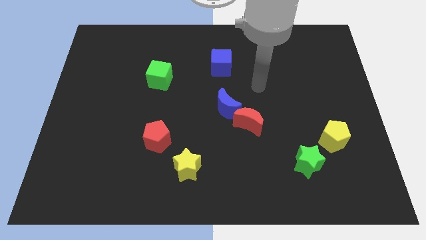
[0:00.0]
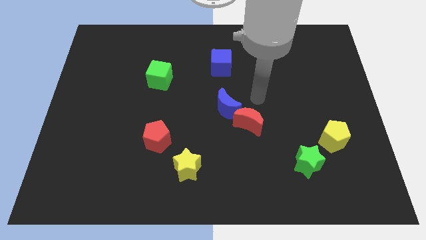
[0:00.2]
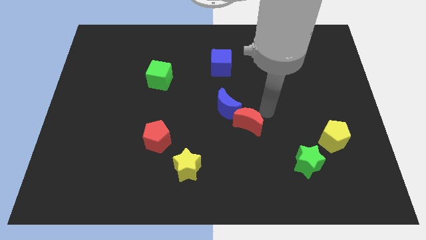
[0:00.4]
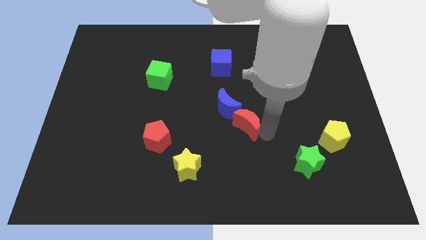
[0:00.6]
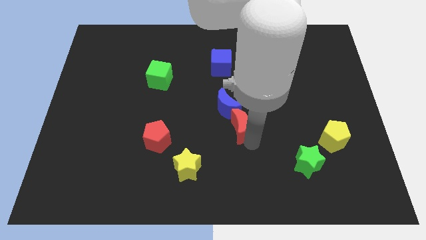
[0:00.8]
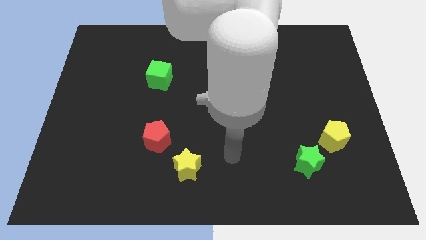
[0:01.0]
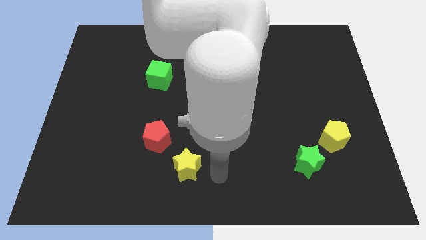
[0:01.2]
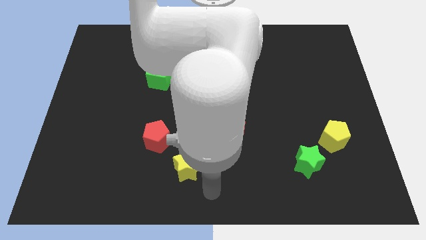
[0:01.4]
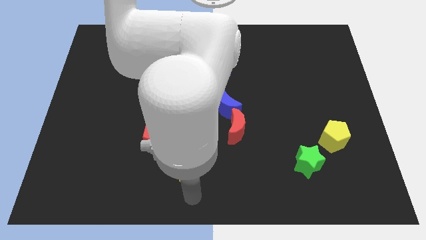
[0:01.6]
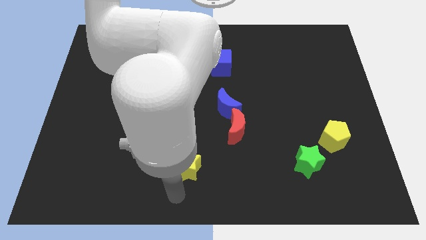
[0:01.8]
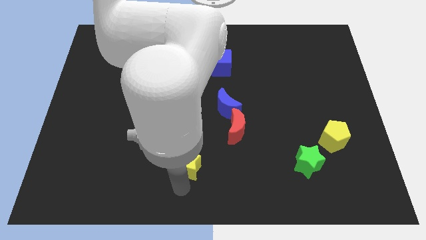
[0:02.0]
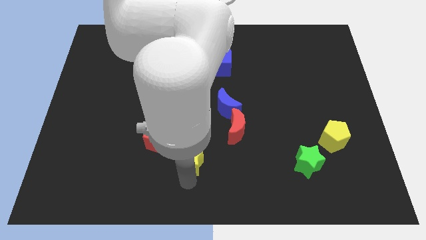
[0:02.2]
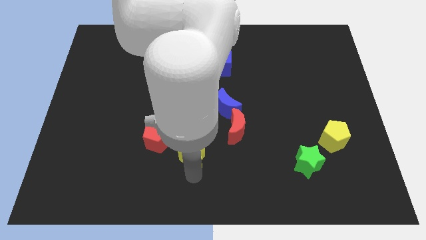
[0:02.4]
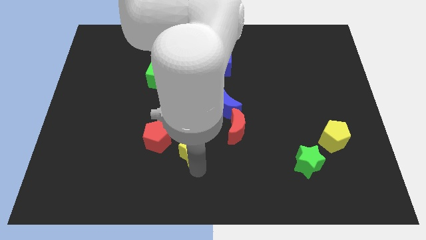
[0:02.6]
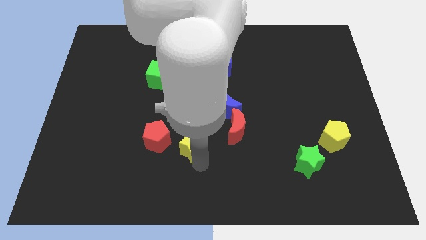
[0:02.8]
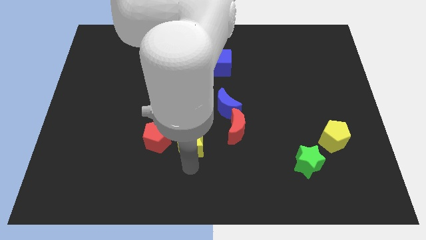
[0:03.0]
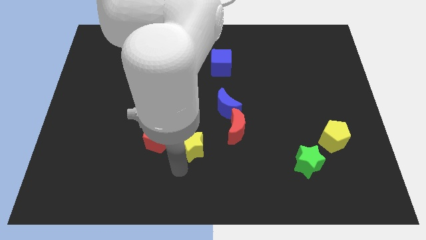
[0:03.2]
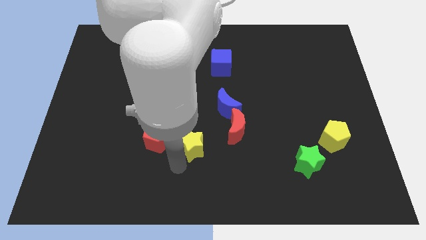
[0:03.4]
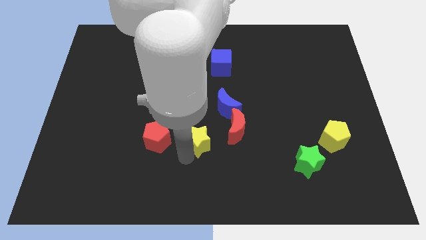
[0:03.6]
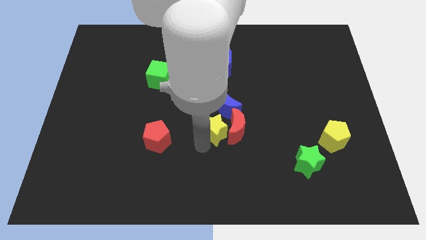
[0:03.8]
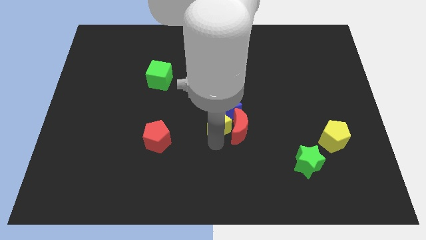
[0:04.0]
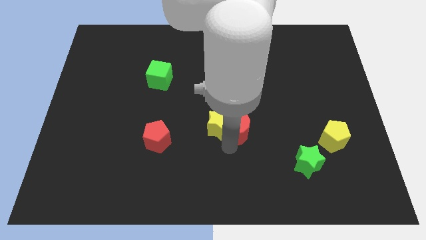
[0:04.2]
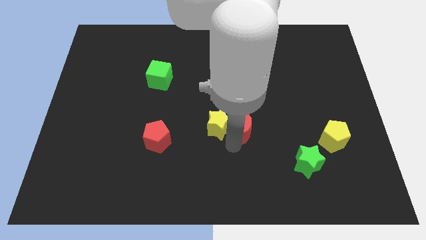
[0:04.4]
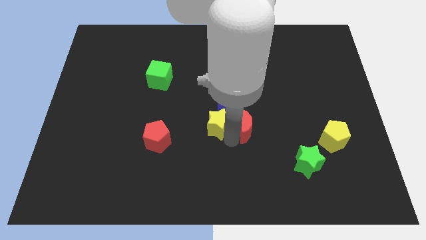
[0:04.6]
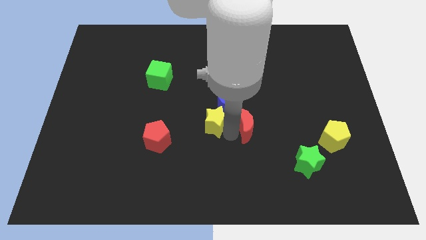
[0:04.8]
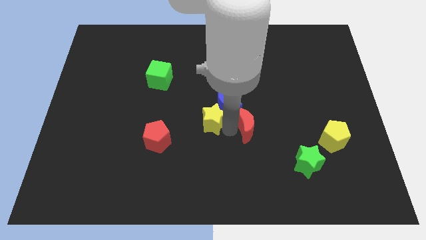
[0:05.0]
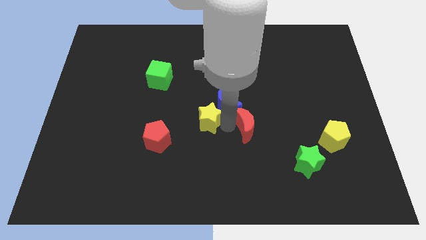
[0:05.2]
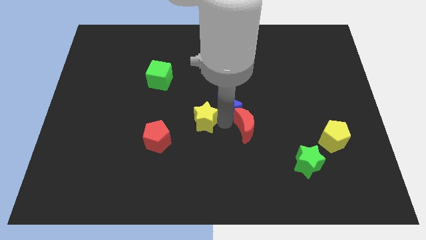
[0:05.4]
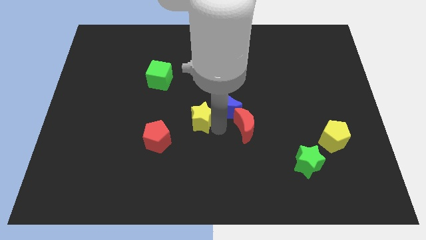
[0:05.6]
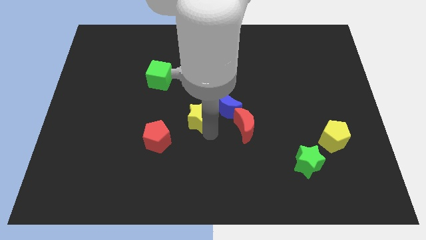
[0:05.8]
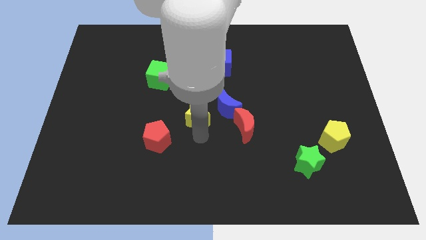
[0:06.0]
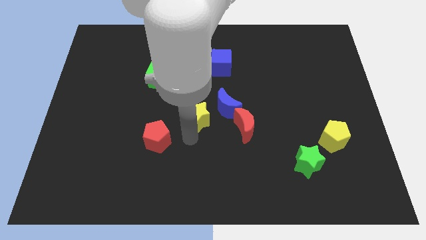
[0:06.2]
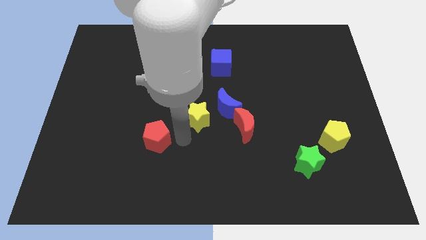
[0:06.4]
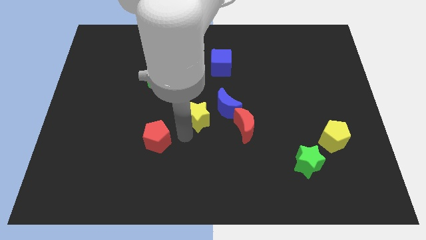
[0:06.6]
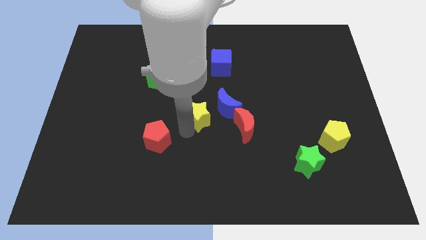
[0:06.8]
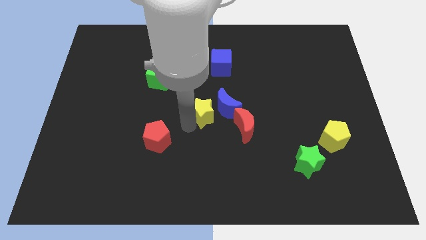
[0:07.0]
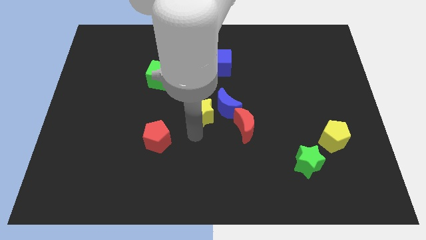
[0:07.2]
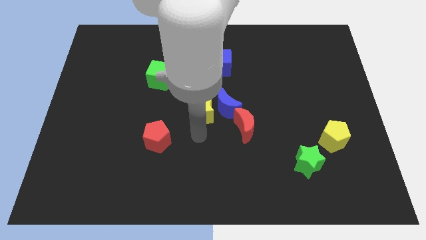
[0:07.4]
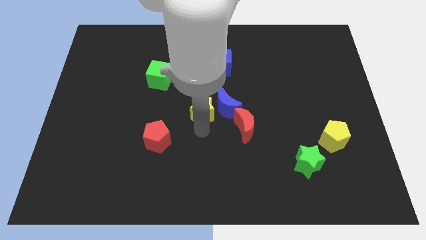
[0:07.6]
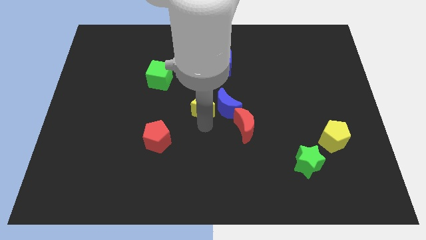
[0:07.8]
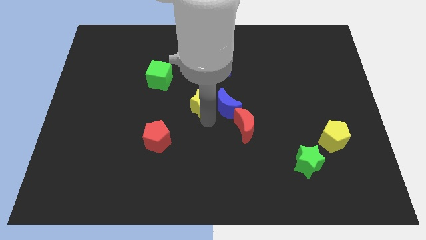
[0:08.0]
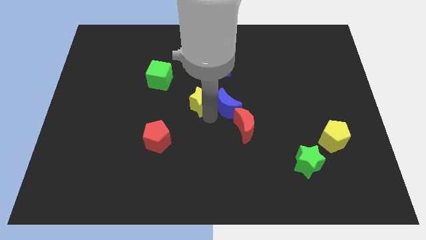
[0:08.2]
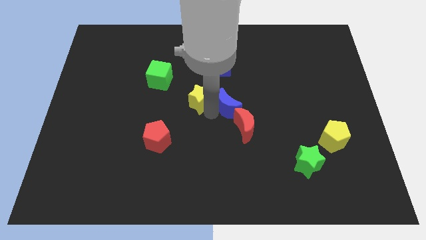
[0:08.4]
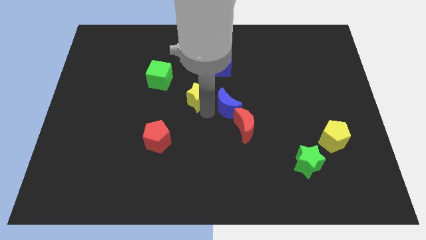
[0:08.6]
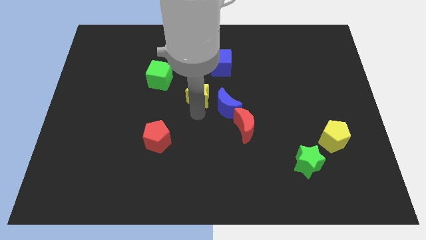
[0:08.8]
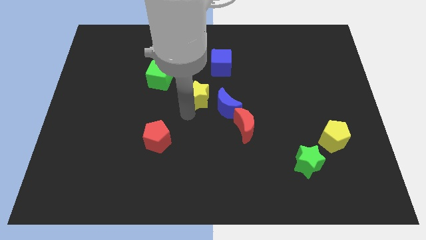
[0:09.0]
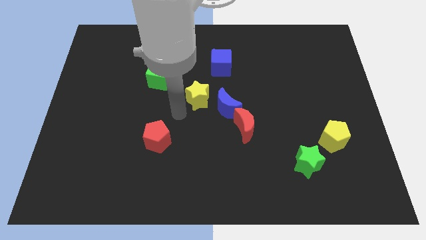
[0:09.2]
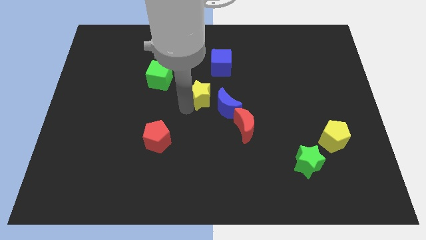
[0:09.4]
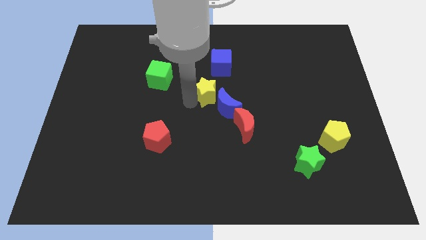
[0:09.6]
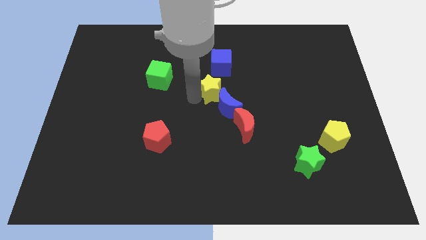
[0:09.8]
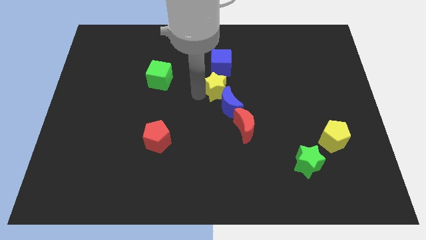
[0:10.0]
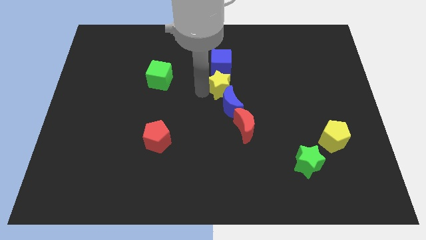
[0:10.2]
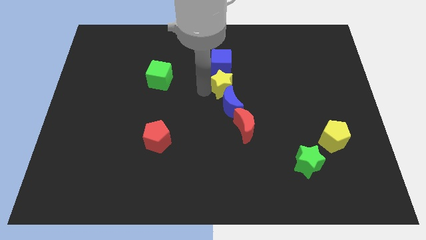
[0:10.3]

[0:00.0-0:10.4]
move the yellow star to the top of the red moon

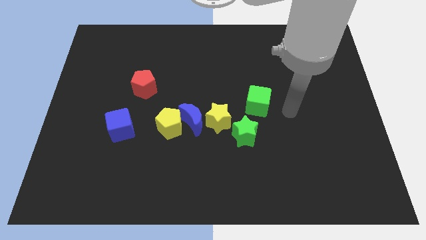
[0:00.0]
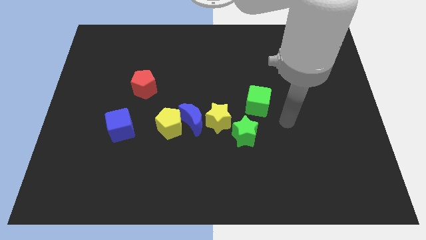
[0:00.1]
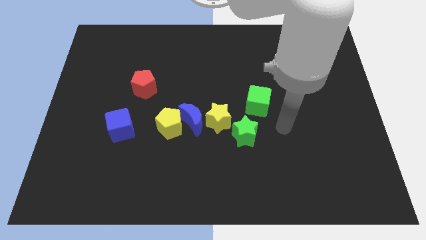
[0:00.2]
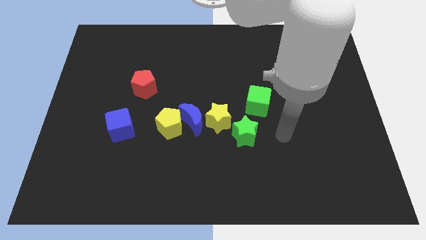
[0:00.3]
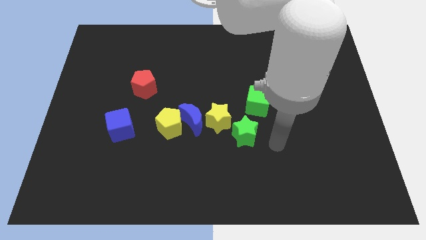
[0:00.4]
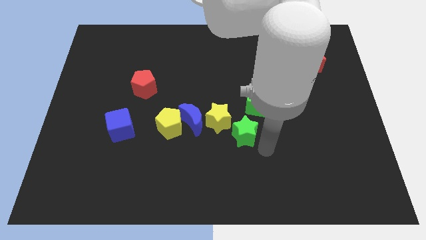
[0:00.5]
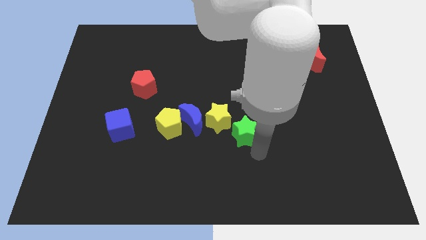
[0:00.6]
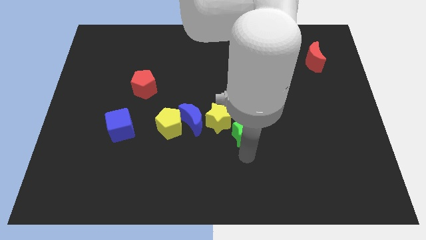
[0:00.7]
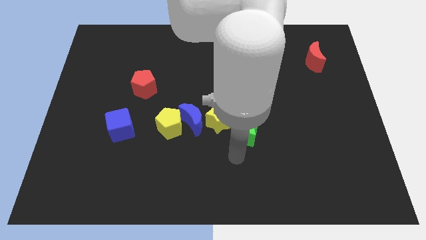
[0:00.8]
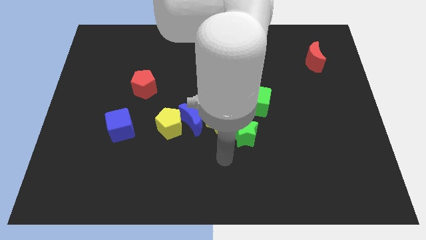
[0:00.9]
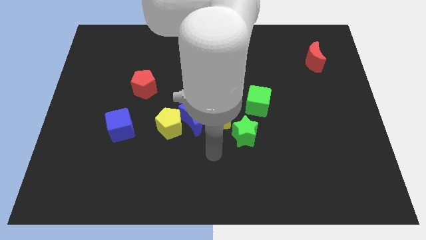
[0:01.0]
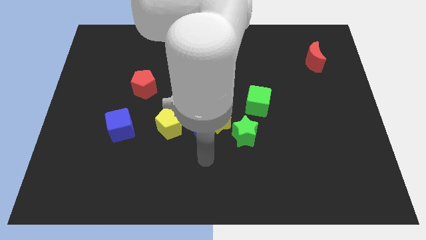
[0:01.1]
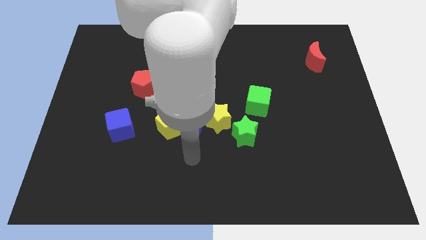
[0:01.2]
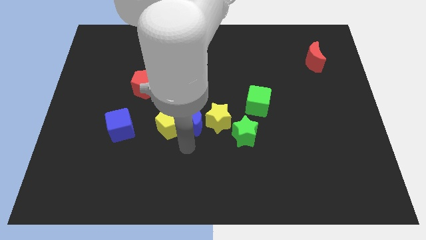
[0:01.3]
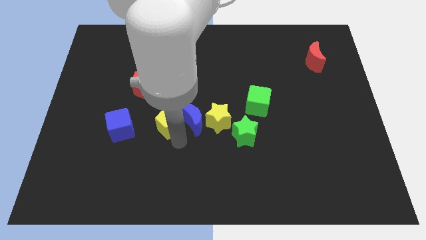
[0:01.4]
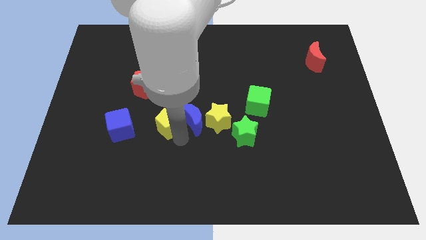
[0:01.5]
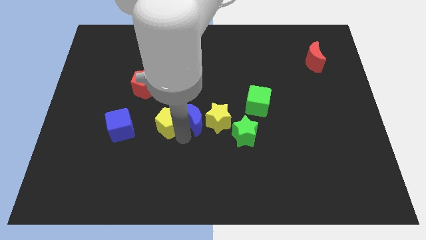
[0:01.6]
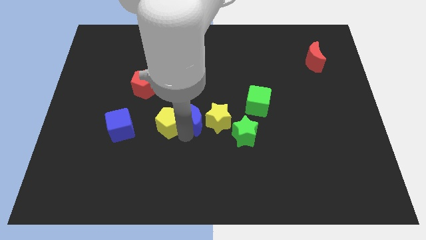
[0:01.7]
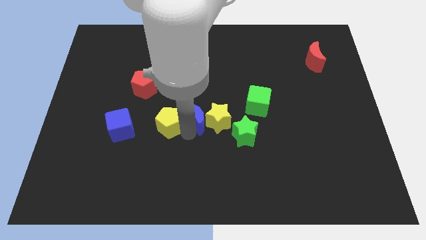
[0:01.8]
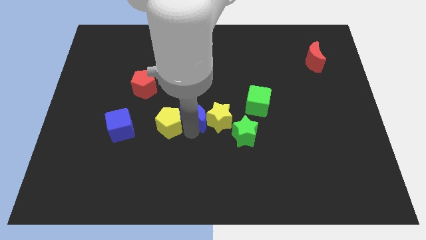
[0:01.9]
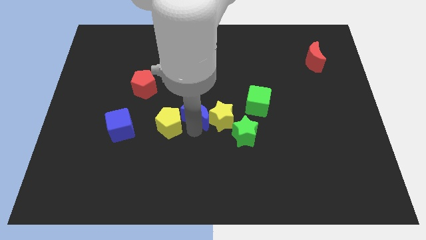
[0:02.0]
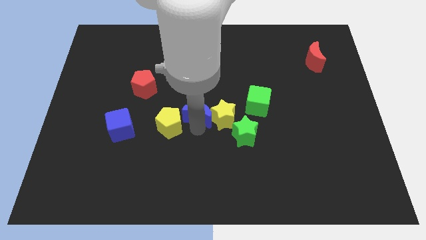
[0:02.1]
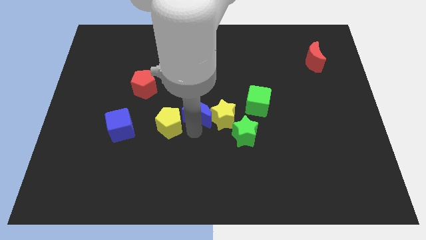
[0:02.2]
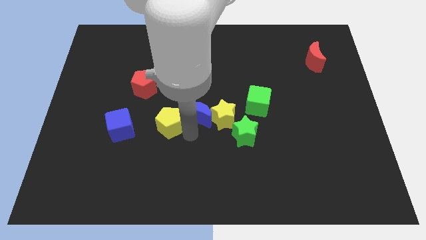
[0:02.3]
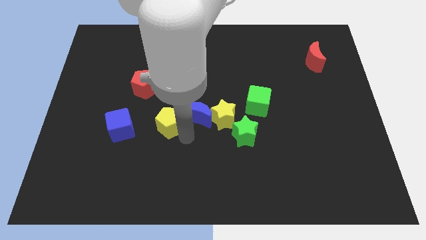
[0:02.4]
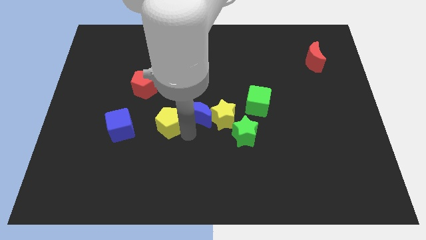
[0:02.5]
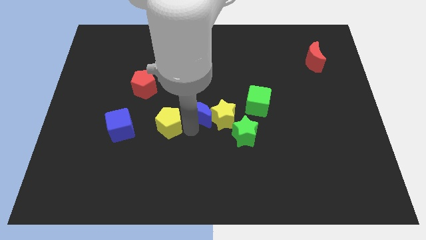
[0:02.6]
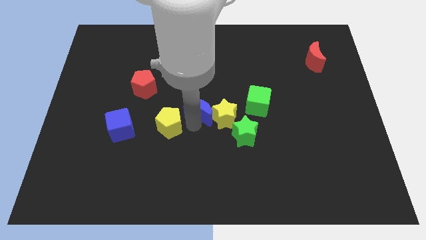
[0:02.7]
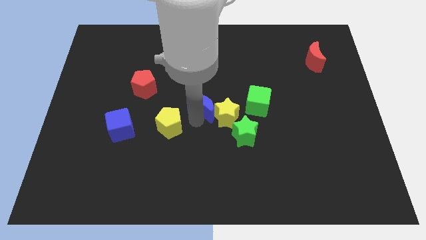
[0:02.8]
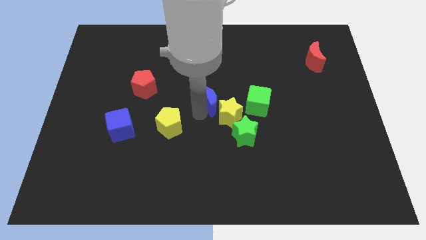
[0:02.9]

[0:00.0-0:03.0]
put the blue moon above the yellow star

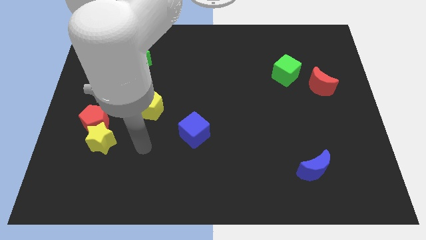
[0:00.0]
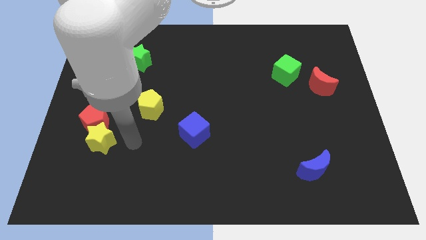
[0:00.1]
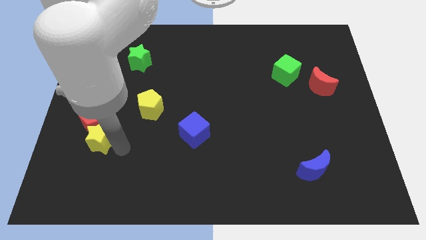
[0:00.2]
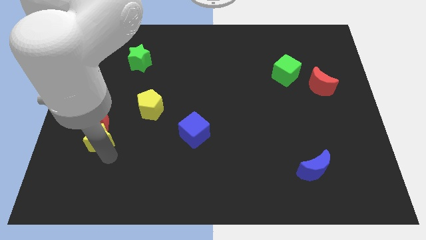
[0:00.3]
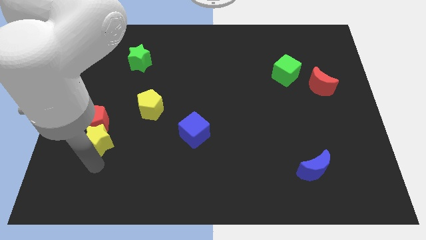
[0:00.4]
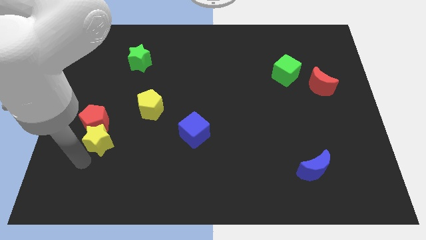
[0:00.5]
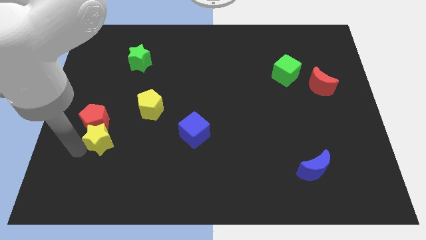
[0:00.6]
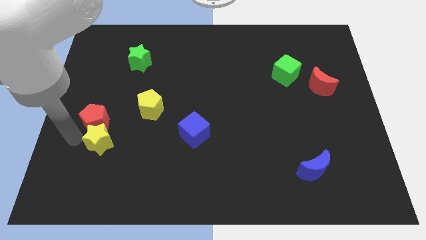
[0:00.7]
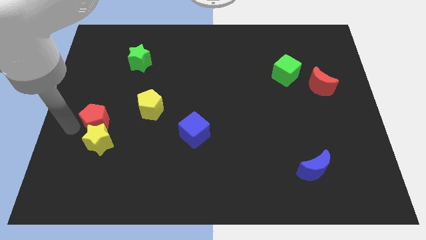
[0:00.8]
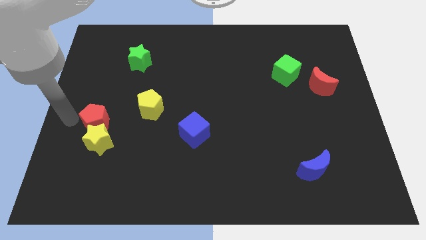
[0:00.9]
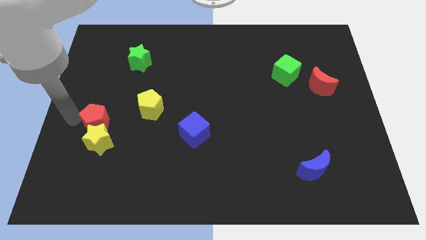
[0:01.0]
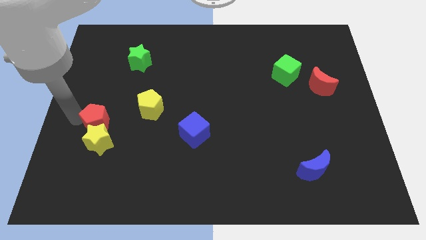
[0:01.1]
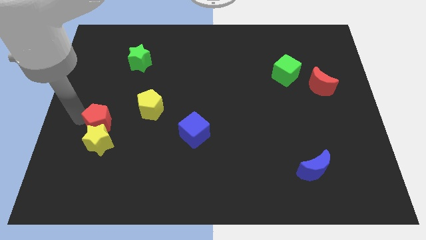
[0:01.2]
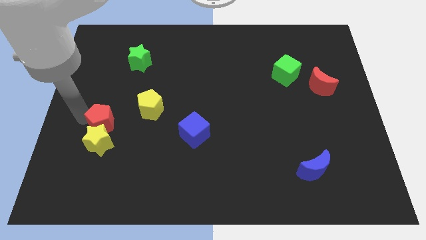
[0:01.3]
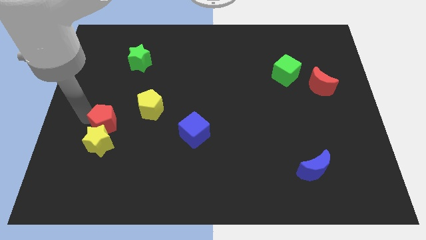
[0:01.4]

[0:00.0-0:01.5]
put the red pentagon diagonally down and to the left of the yellow pentagon
